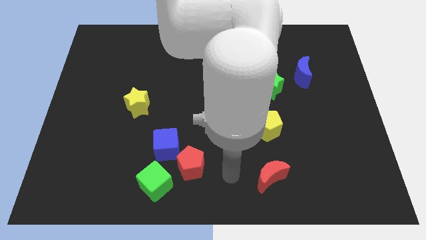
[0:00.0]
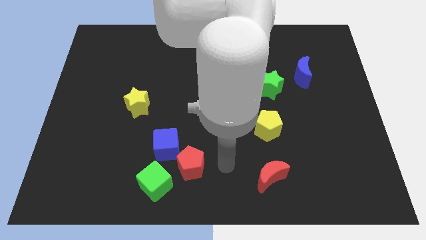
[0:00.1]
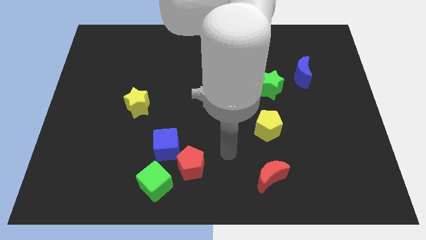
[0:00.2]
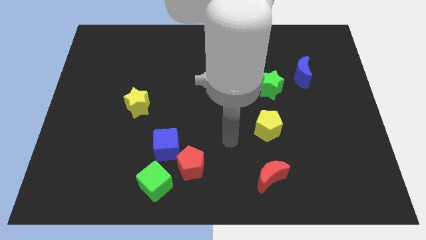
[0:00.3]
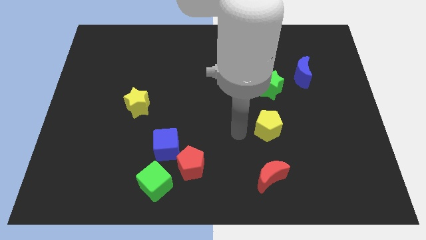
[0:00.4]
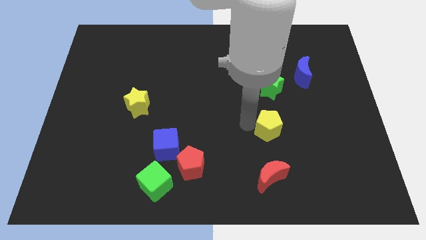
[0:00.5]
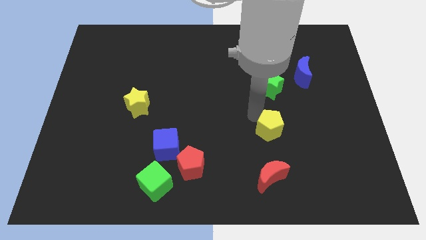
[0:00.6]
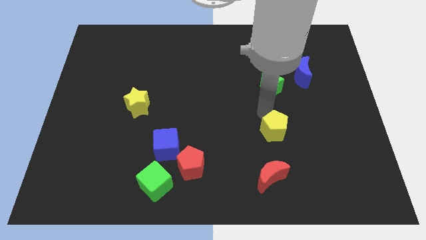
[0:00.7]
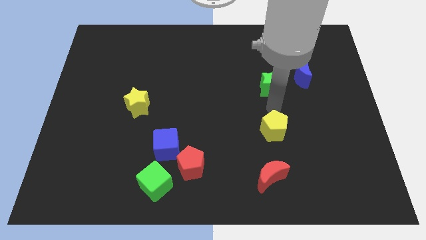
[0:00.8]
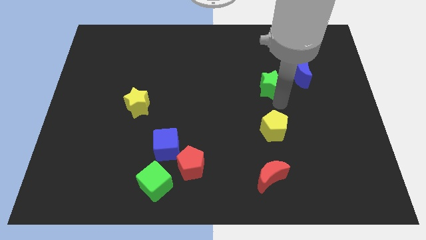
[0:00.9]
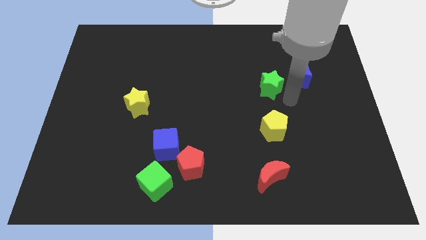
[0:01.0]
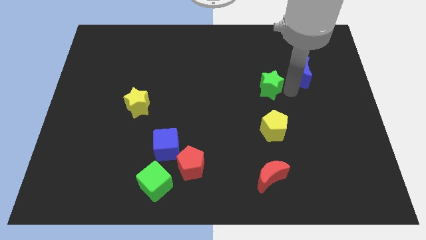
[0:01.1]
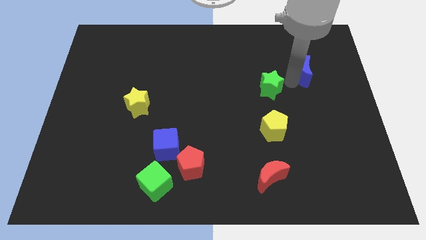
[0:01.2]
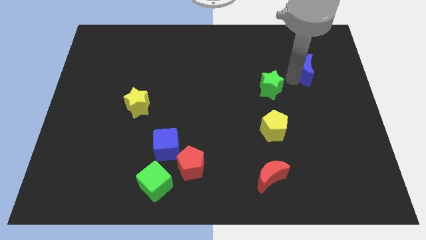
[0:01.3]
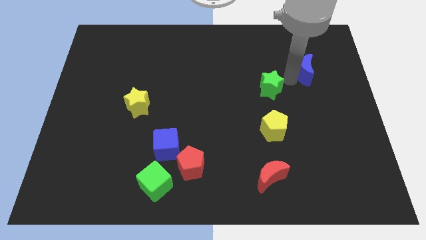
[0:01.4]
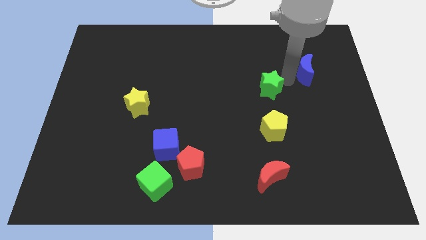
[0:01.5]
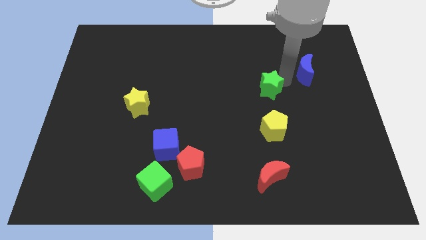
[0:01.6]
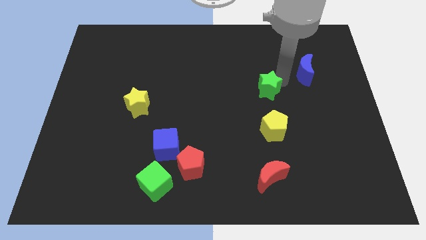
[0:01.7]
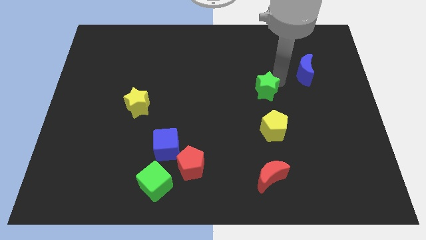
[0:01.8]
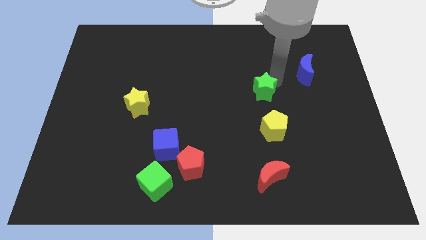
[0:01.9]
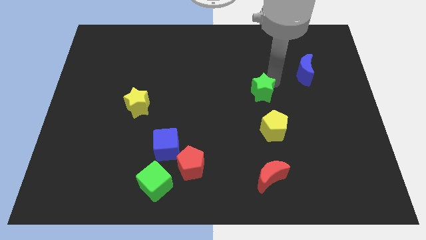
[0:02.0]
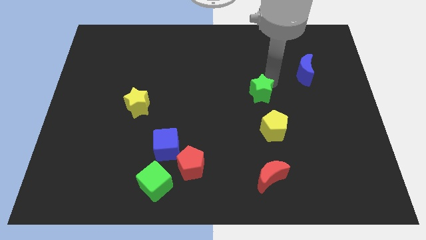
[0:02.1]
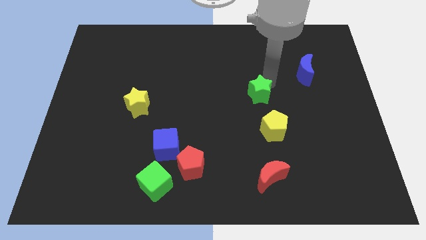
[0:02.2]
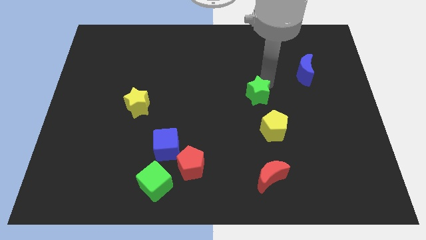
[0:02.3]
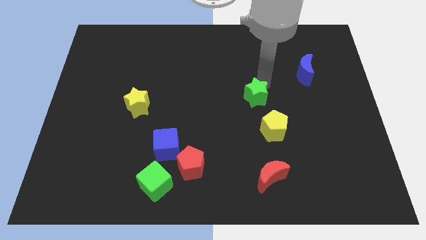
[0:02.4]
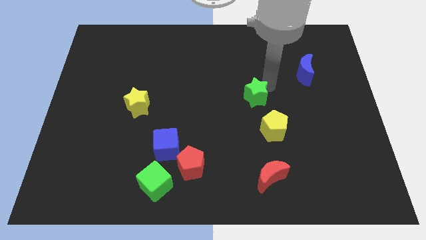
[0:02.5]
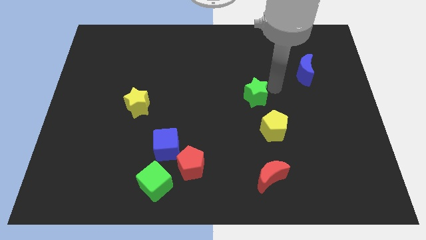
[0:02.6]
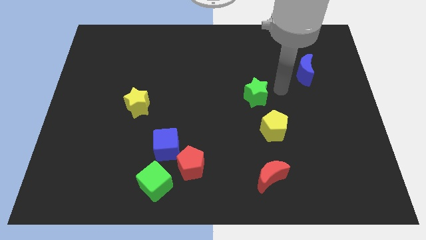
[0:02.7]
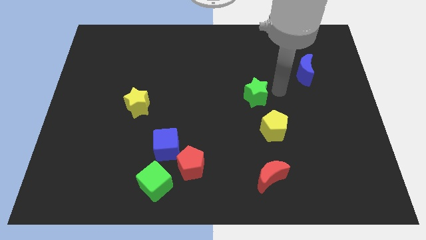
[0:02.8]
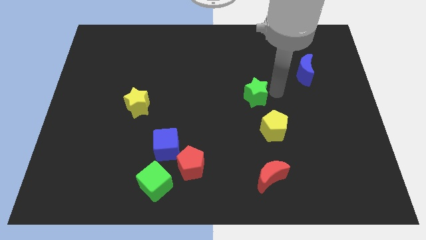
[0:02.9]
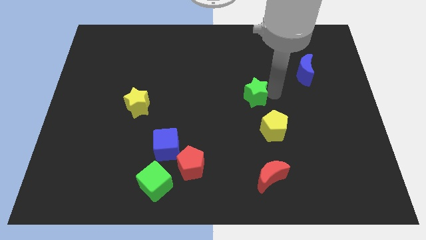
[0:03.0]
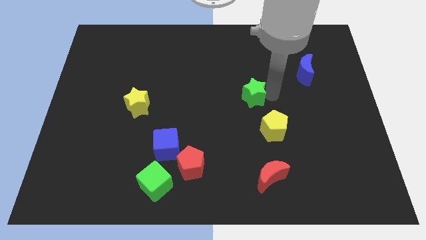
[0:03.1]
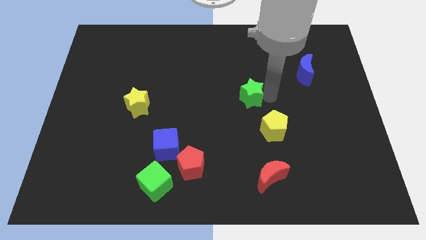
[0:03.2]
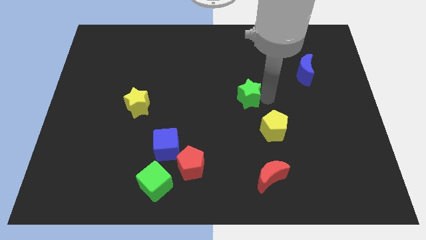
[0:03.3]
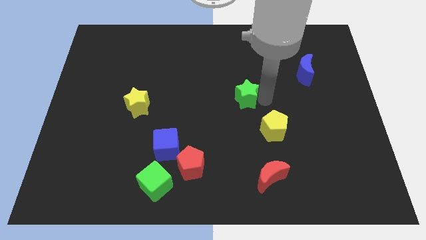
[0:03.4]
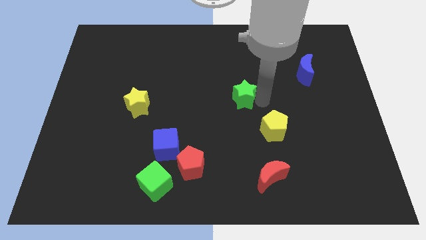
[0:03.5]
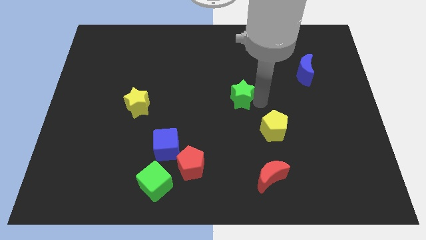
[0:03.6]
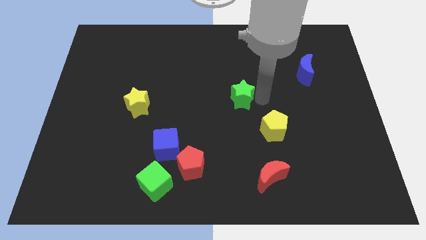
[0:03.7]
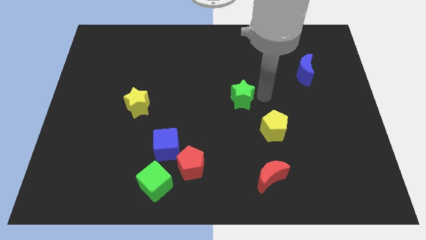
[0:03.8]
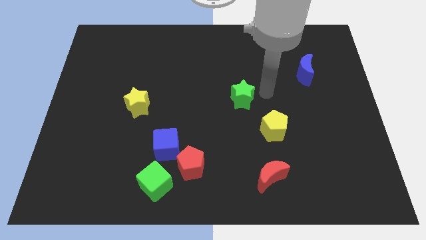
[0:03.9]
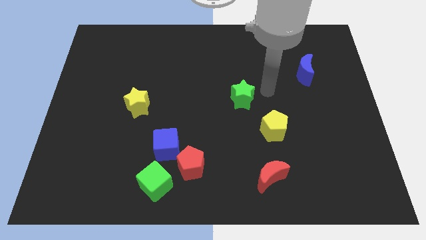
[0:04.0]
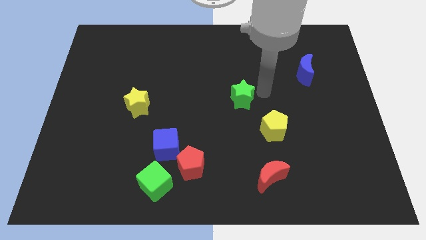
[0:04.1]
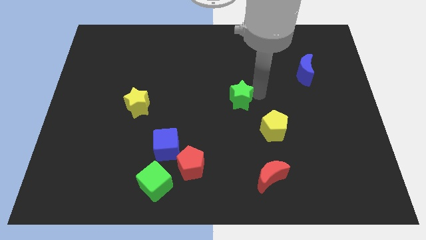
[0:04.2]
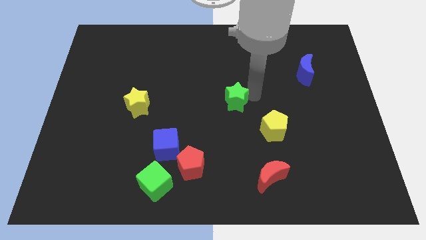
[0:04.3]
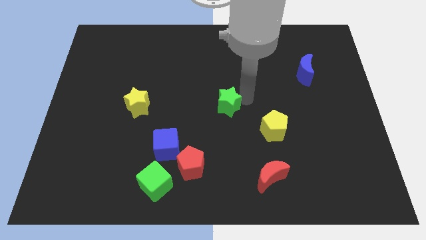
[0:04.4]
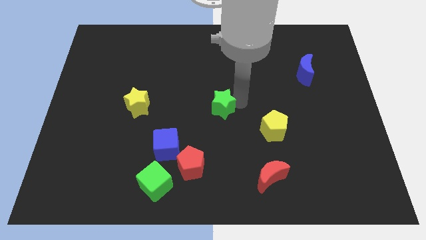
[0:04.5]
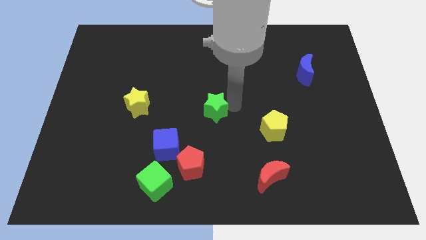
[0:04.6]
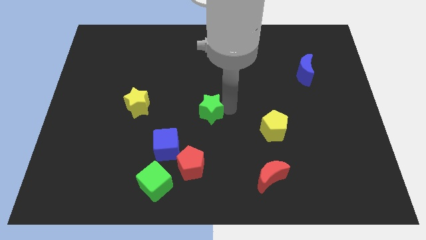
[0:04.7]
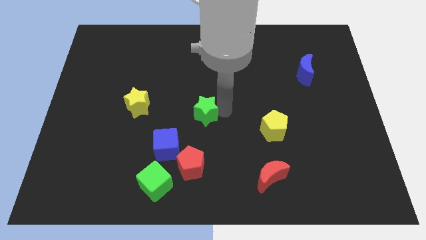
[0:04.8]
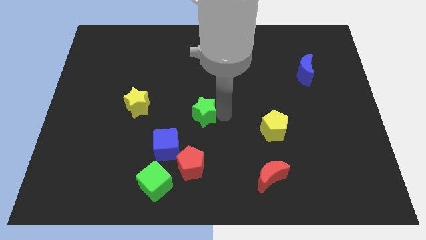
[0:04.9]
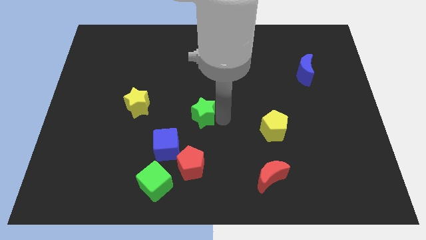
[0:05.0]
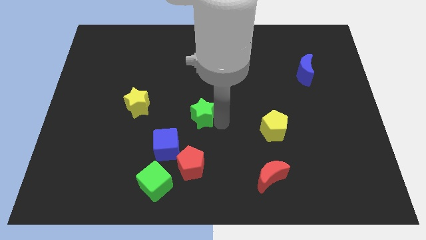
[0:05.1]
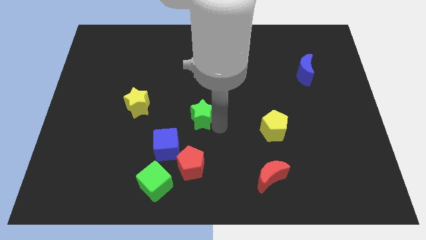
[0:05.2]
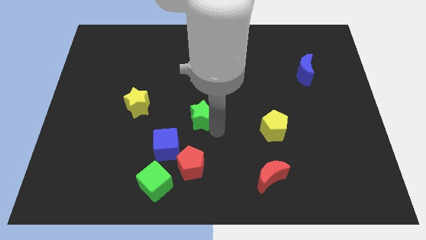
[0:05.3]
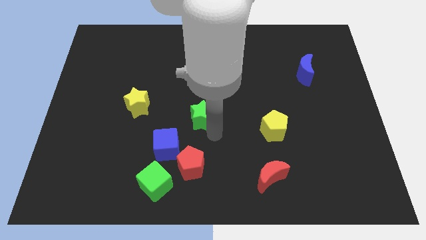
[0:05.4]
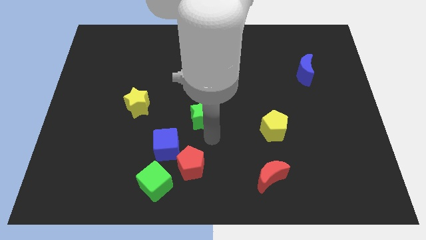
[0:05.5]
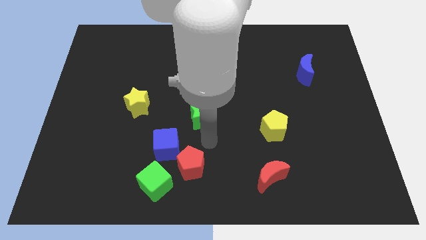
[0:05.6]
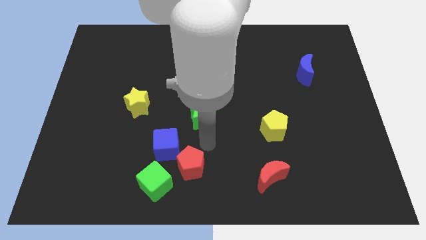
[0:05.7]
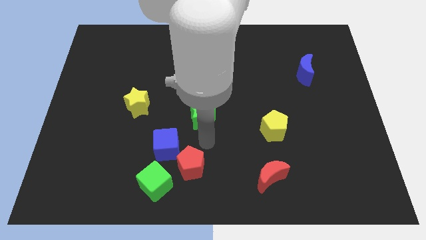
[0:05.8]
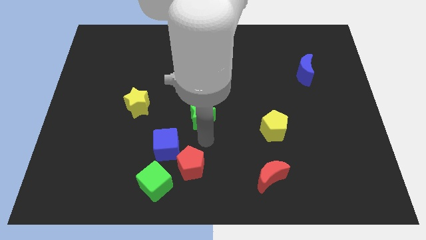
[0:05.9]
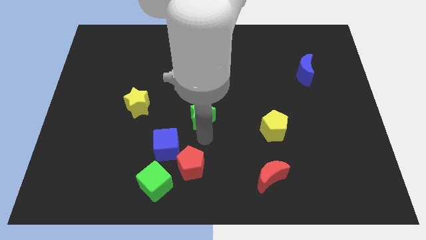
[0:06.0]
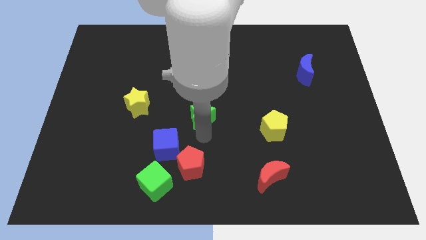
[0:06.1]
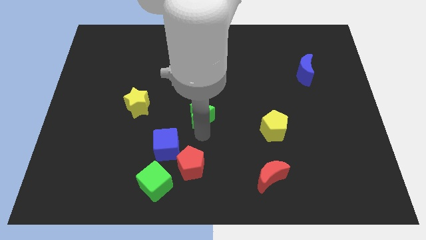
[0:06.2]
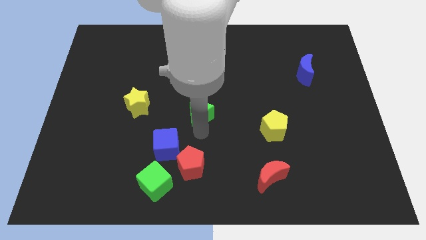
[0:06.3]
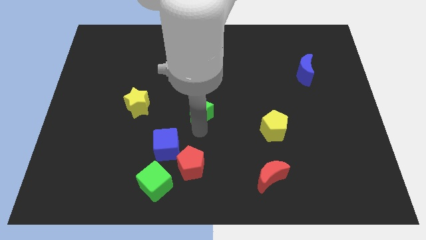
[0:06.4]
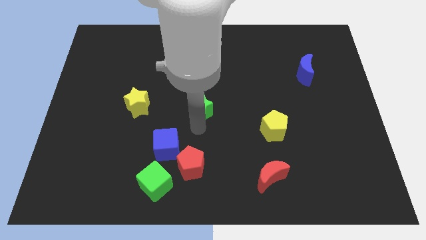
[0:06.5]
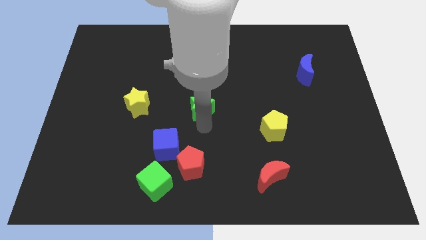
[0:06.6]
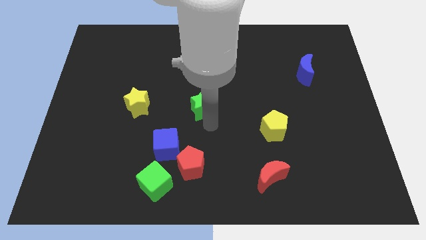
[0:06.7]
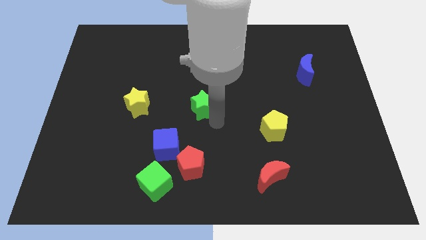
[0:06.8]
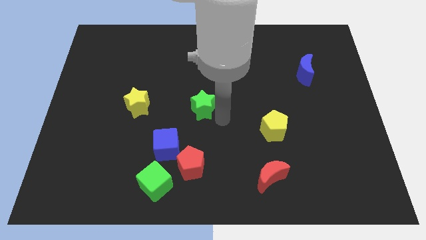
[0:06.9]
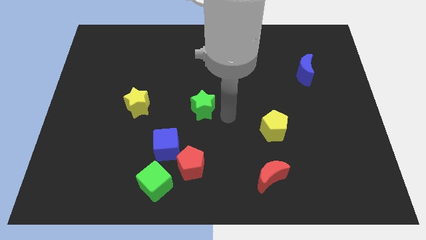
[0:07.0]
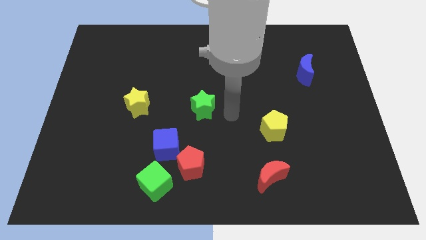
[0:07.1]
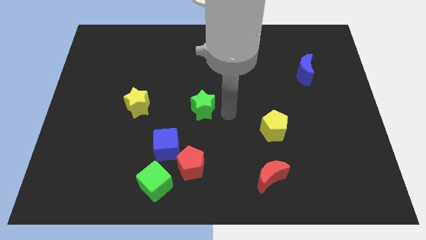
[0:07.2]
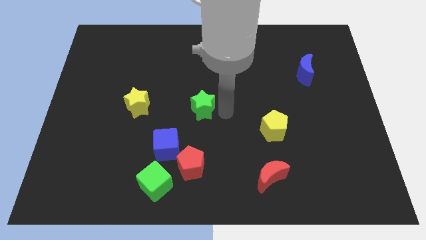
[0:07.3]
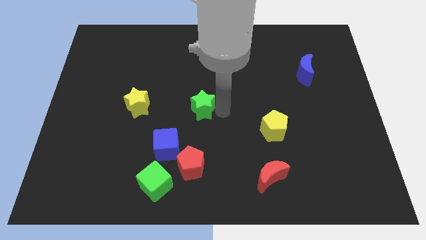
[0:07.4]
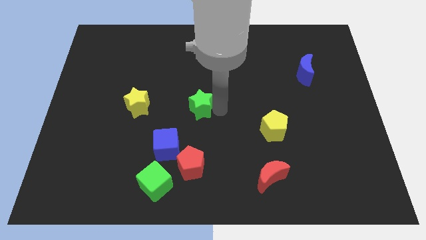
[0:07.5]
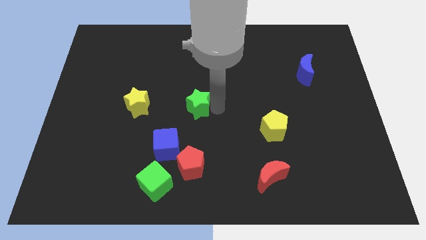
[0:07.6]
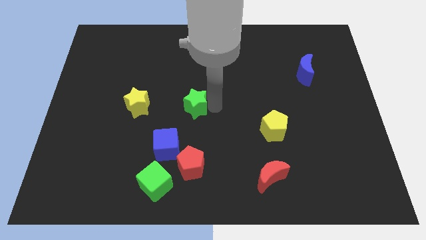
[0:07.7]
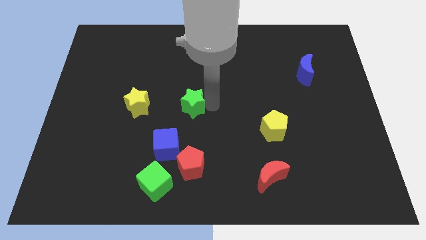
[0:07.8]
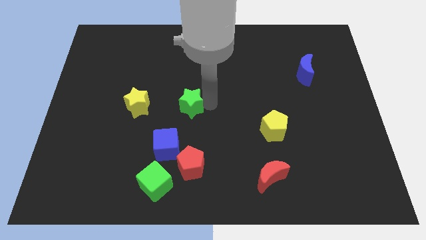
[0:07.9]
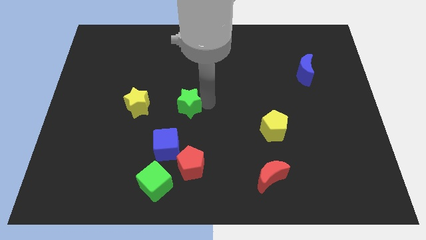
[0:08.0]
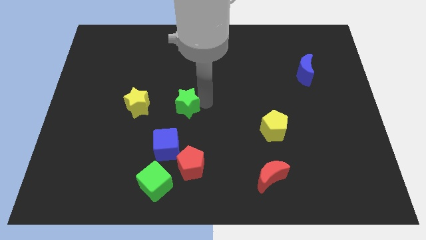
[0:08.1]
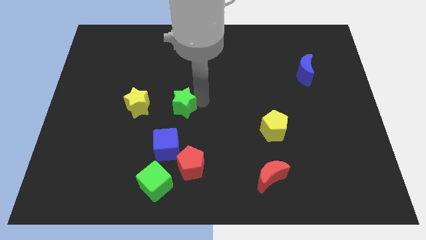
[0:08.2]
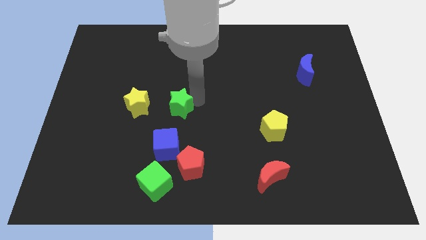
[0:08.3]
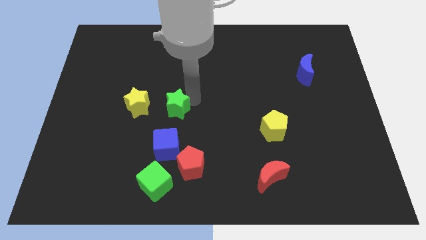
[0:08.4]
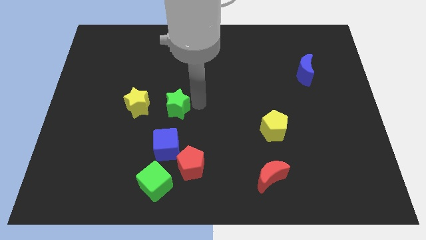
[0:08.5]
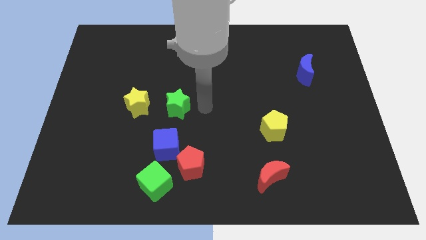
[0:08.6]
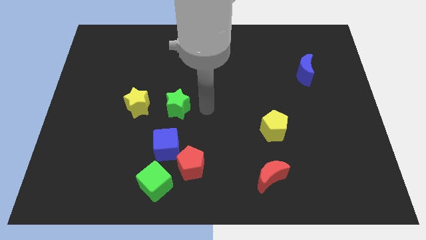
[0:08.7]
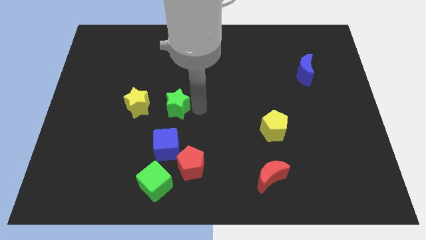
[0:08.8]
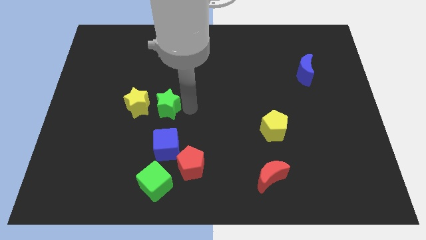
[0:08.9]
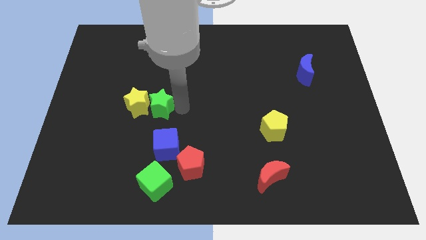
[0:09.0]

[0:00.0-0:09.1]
slide the green star towards the yellow star
